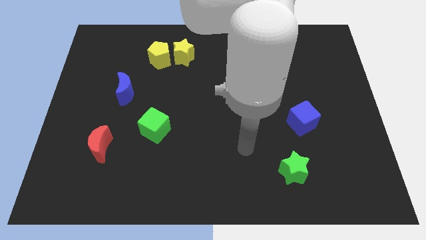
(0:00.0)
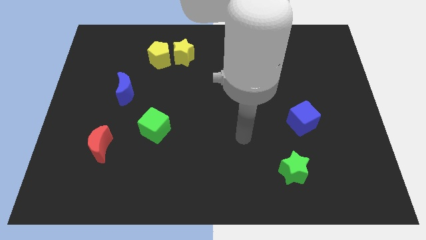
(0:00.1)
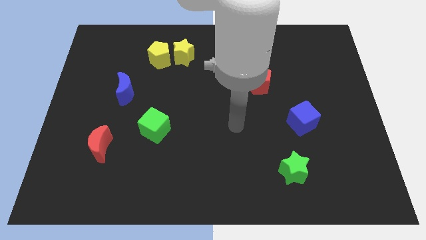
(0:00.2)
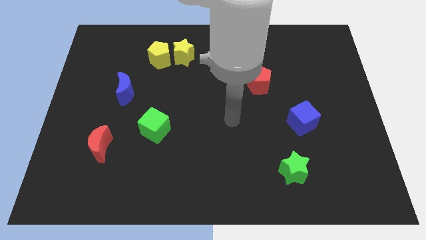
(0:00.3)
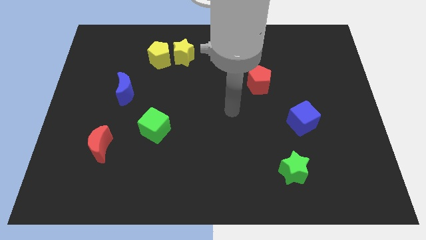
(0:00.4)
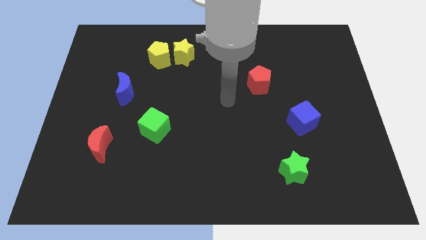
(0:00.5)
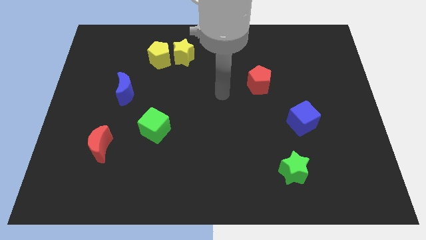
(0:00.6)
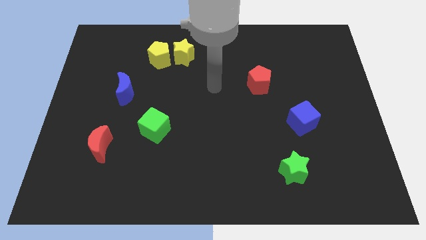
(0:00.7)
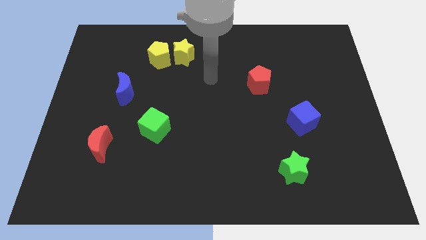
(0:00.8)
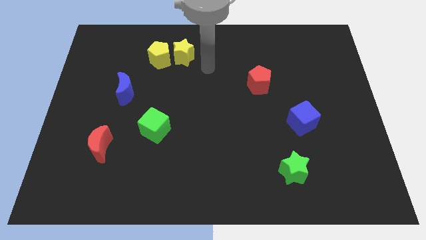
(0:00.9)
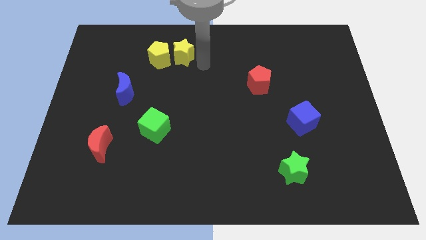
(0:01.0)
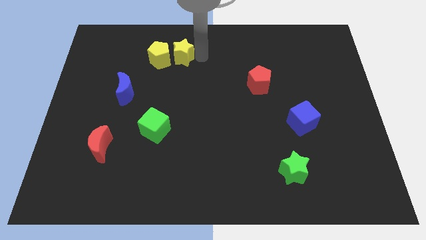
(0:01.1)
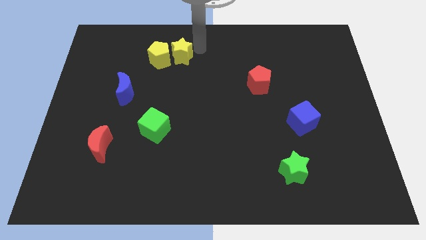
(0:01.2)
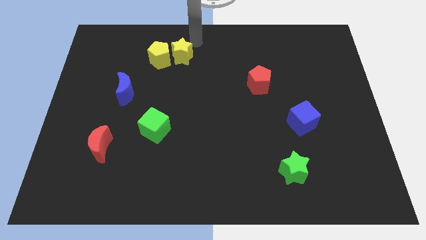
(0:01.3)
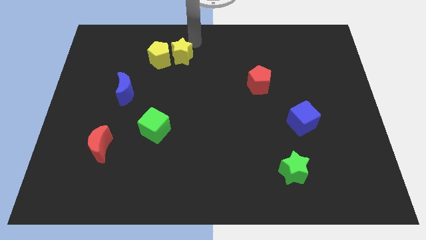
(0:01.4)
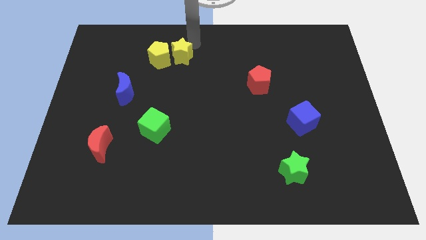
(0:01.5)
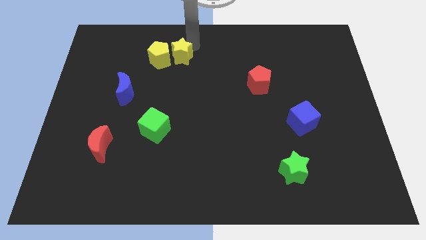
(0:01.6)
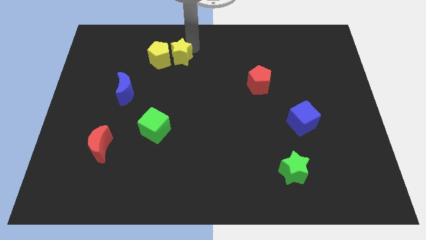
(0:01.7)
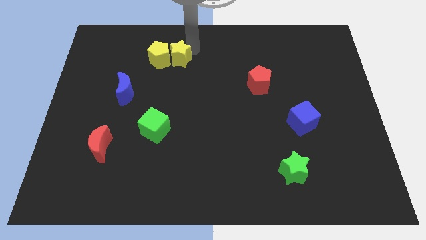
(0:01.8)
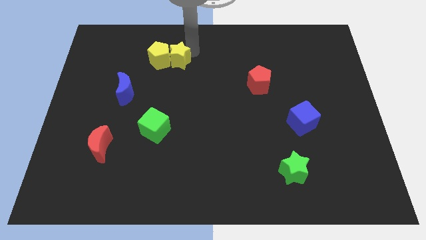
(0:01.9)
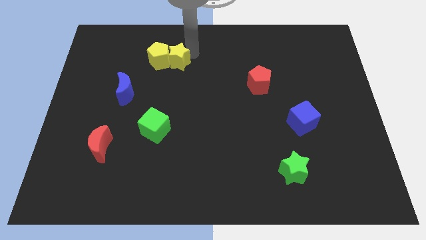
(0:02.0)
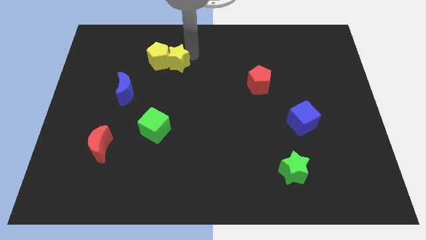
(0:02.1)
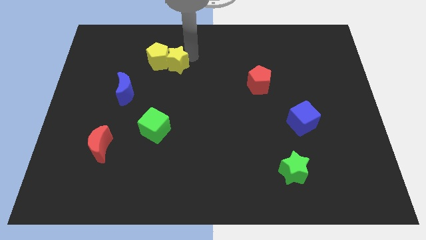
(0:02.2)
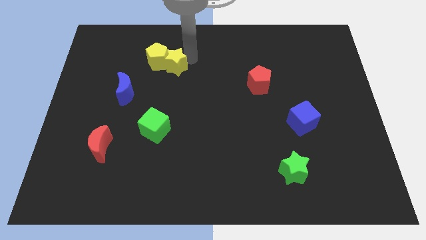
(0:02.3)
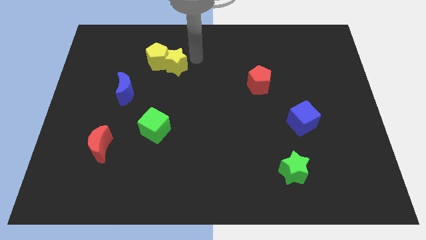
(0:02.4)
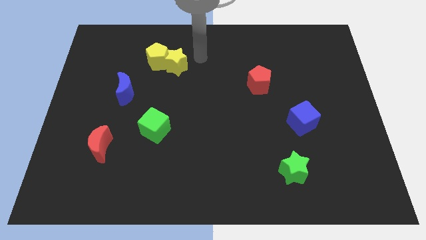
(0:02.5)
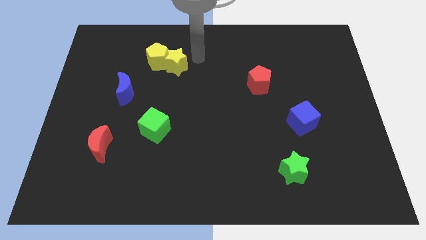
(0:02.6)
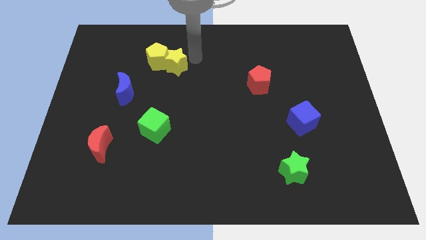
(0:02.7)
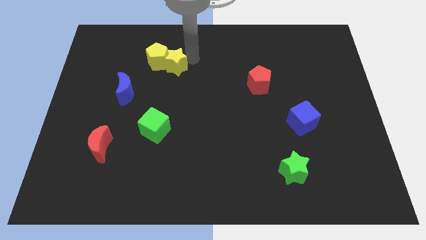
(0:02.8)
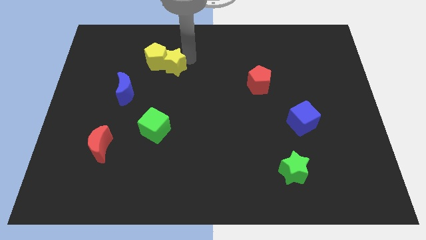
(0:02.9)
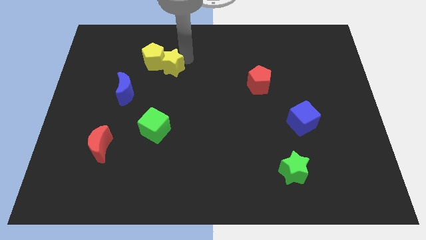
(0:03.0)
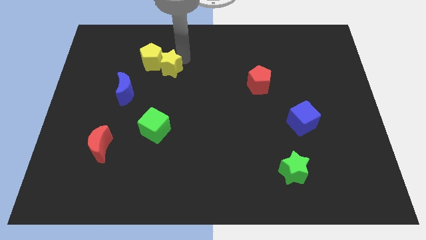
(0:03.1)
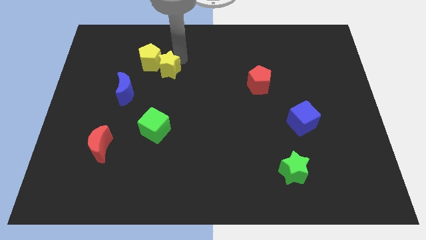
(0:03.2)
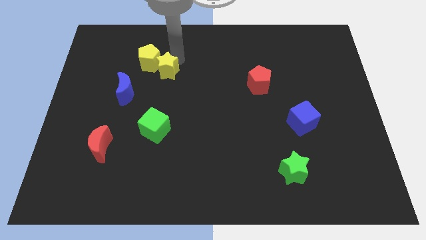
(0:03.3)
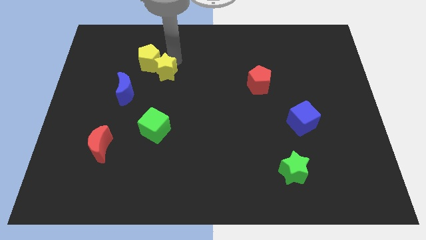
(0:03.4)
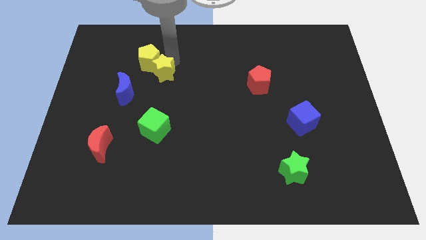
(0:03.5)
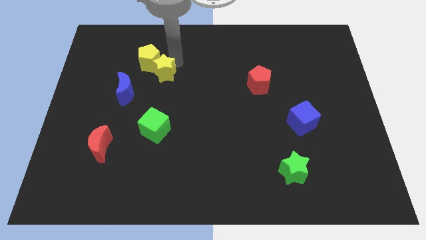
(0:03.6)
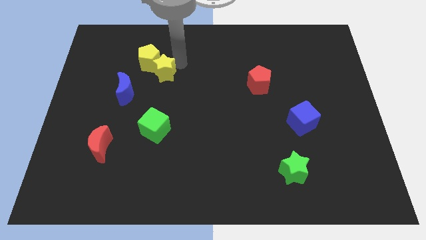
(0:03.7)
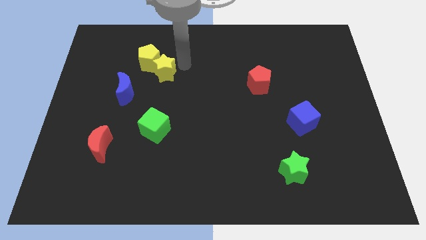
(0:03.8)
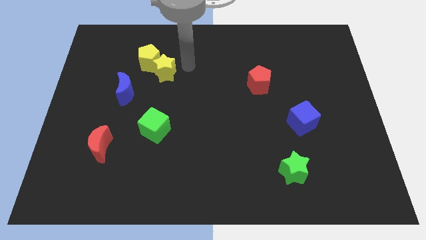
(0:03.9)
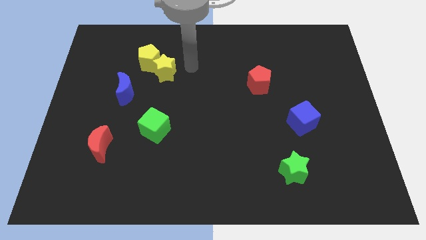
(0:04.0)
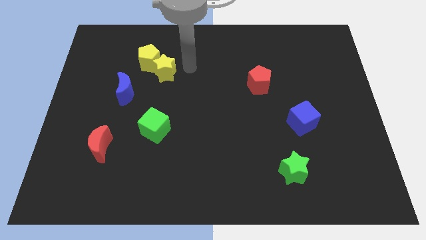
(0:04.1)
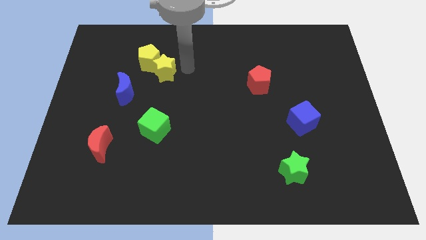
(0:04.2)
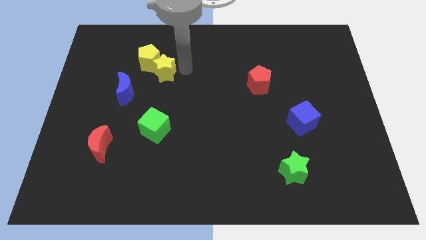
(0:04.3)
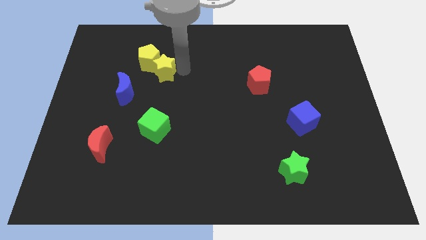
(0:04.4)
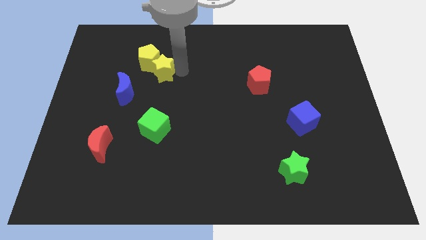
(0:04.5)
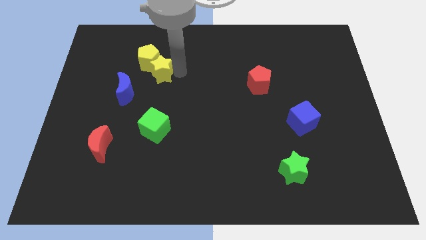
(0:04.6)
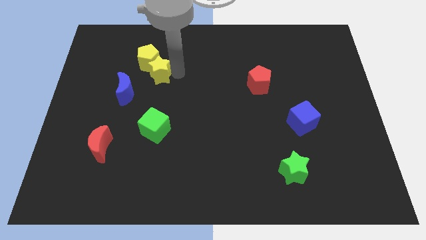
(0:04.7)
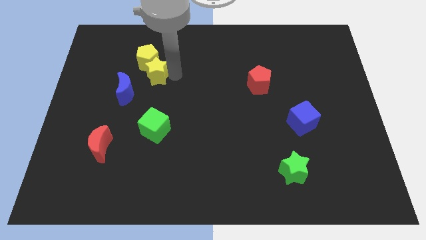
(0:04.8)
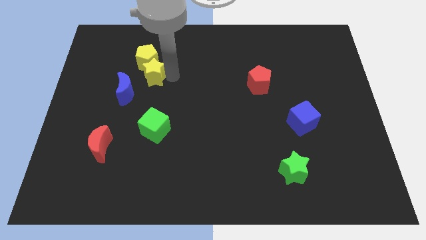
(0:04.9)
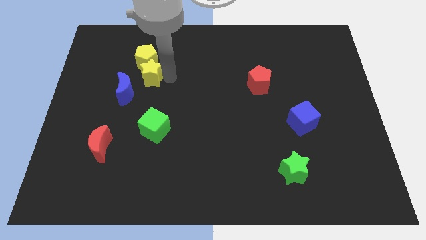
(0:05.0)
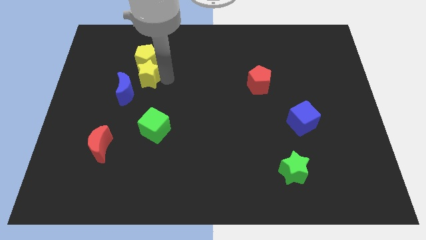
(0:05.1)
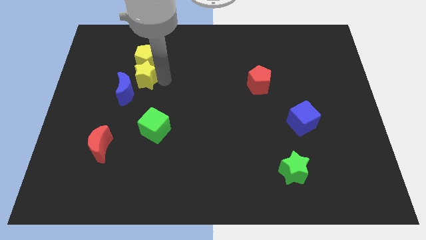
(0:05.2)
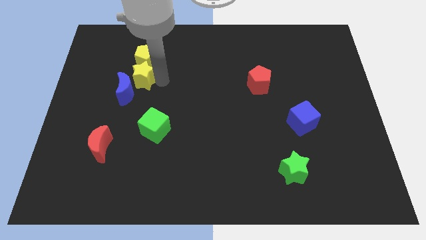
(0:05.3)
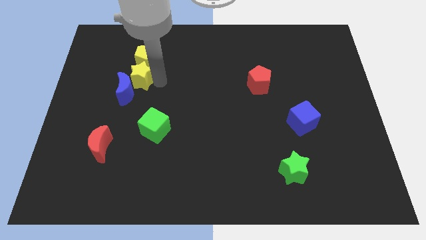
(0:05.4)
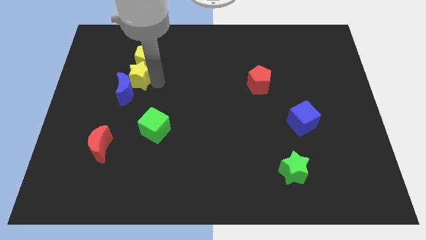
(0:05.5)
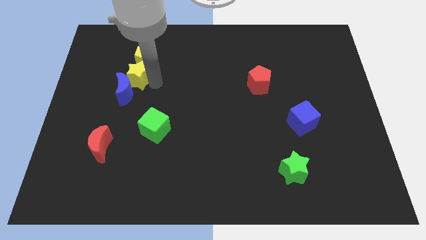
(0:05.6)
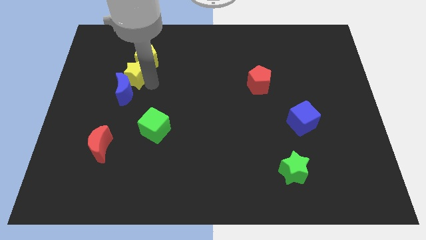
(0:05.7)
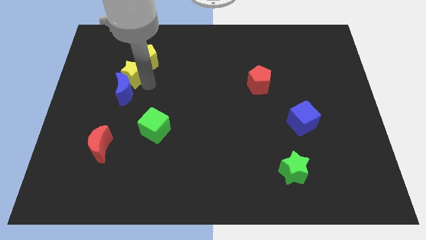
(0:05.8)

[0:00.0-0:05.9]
move the yellow star to the top left of the blue moon

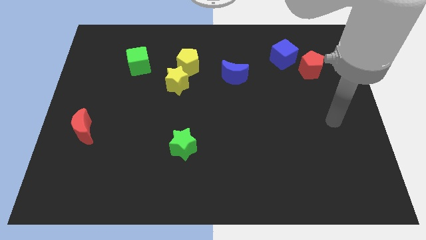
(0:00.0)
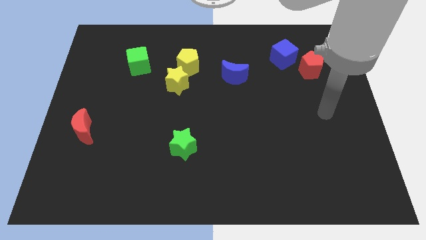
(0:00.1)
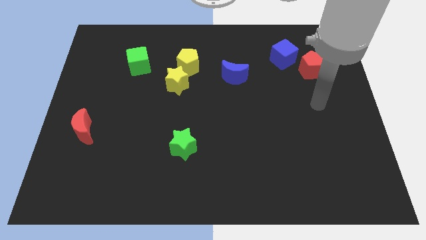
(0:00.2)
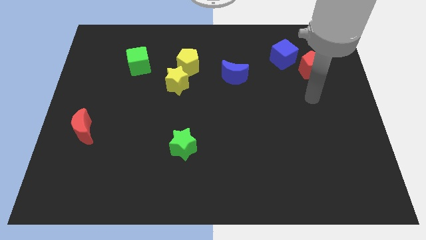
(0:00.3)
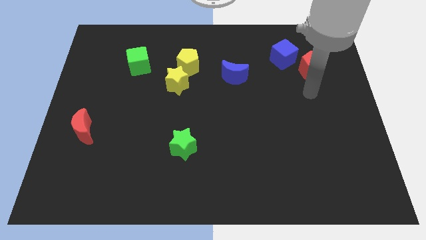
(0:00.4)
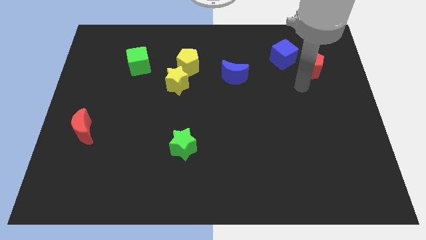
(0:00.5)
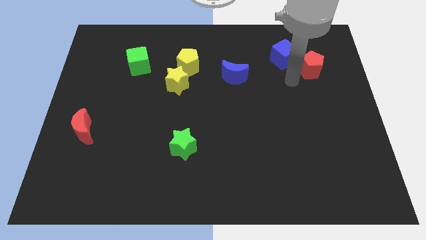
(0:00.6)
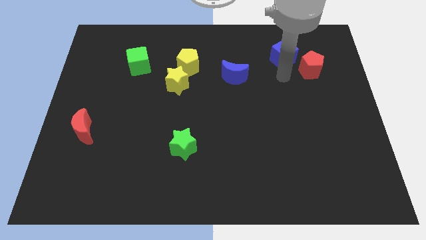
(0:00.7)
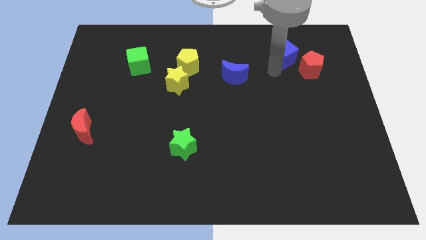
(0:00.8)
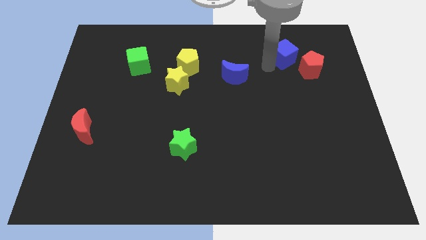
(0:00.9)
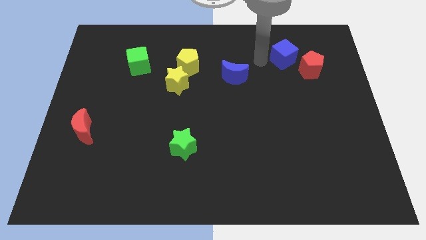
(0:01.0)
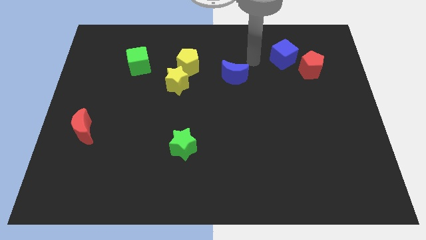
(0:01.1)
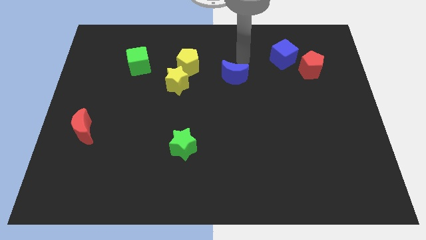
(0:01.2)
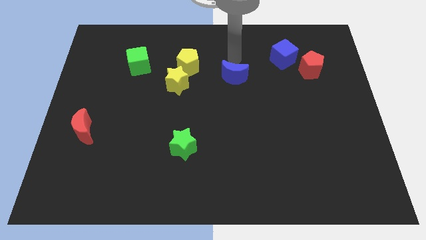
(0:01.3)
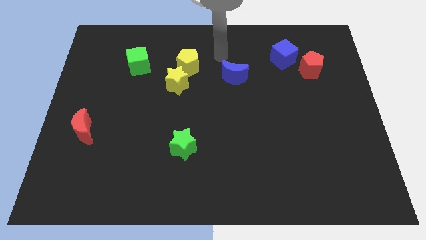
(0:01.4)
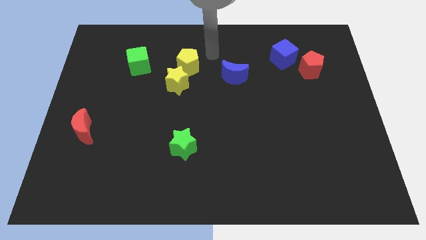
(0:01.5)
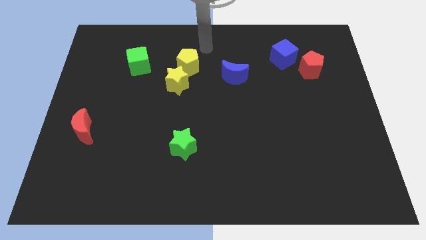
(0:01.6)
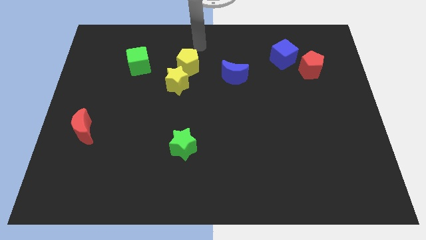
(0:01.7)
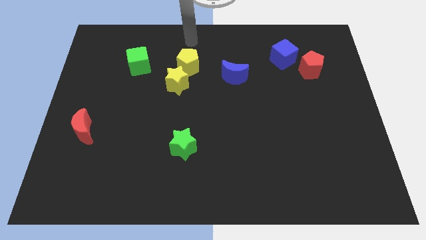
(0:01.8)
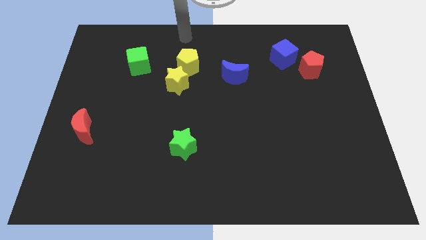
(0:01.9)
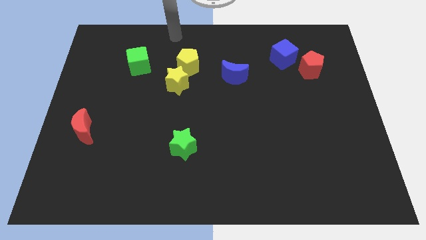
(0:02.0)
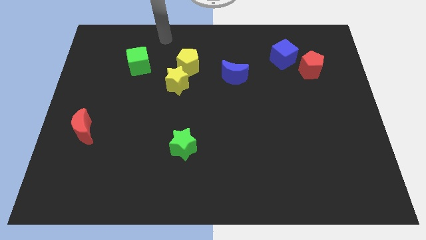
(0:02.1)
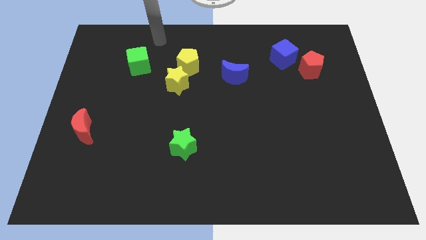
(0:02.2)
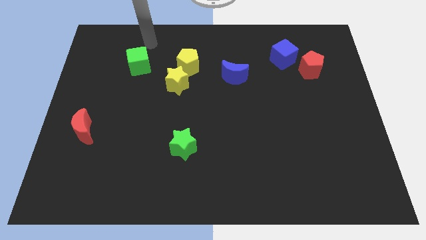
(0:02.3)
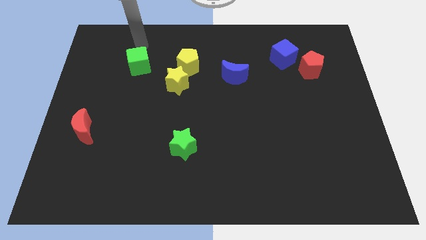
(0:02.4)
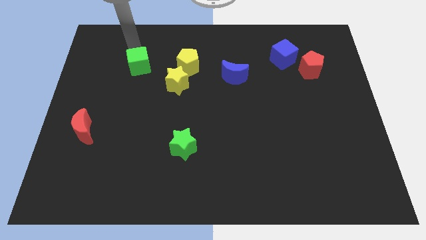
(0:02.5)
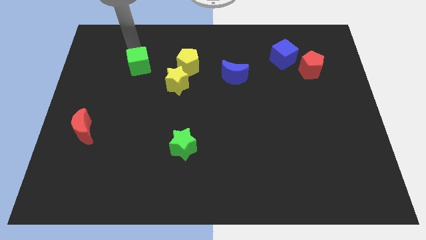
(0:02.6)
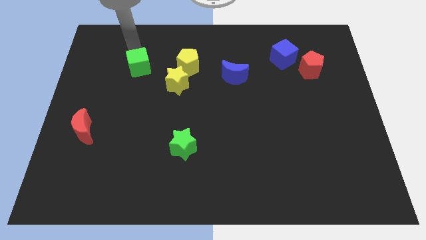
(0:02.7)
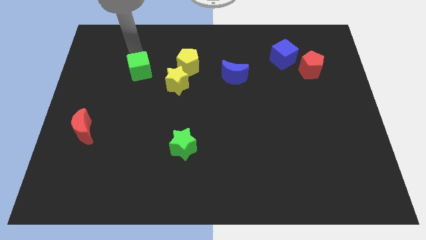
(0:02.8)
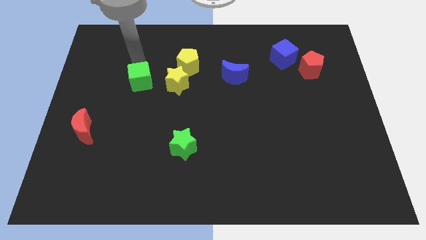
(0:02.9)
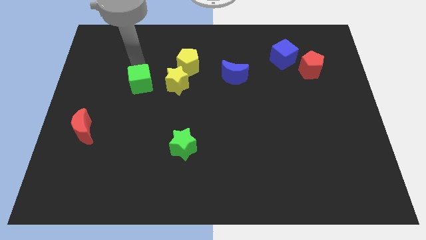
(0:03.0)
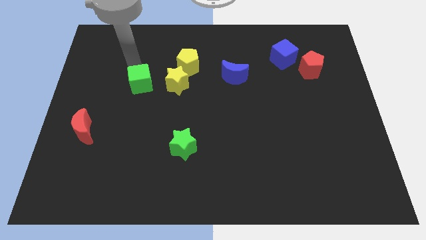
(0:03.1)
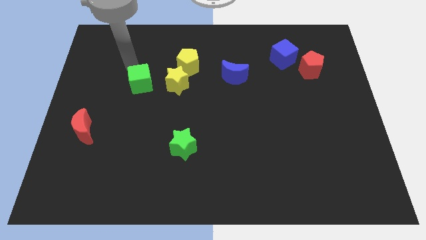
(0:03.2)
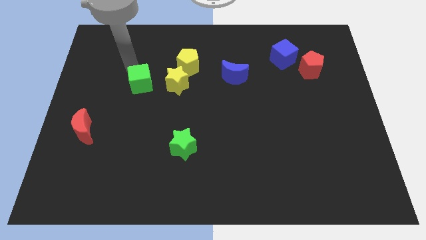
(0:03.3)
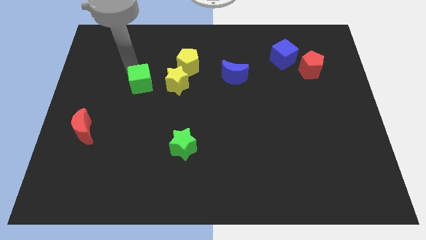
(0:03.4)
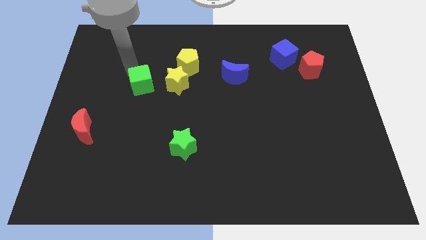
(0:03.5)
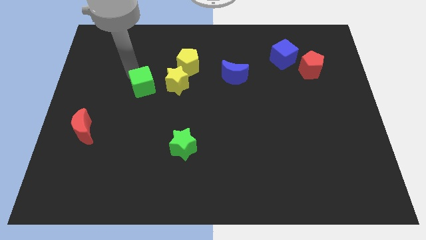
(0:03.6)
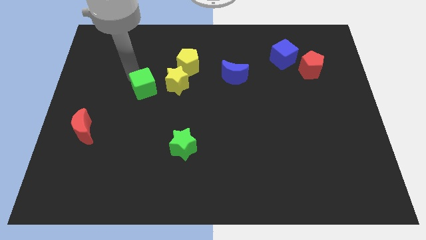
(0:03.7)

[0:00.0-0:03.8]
push the green cube diagonally down and to the left of the yellow star
